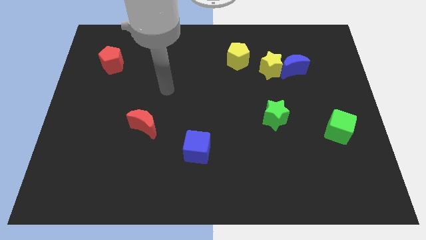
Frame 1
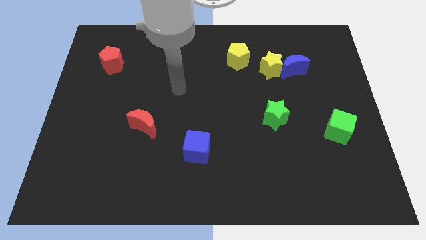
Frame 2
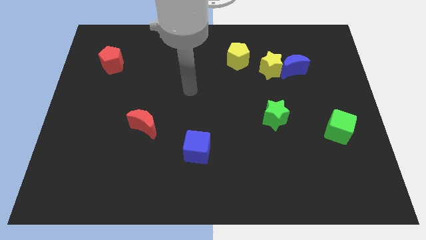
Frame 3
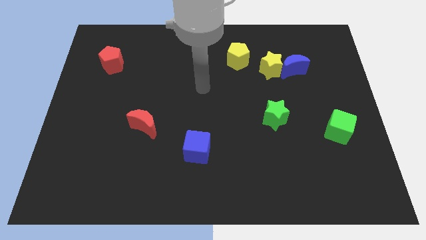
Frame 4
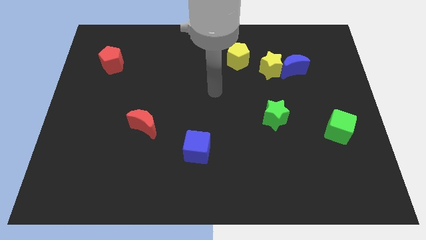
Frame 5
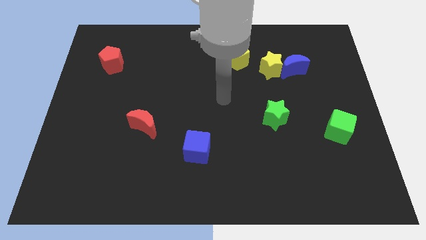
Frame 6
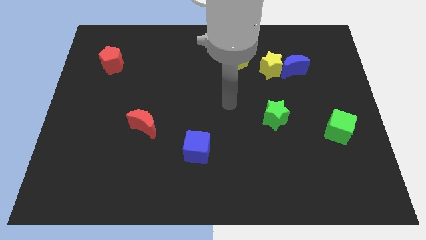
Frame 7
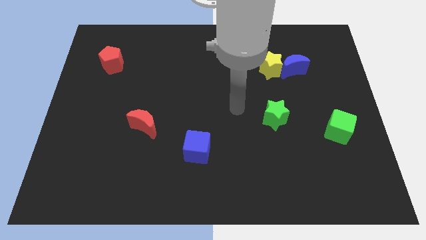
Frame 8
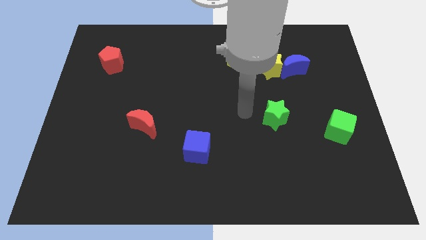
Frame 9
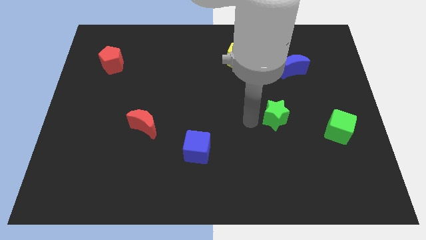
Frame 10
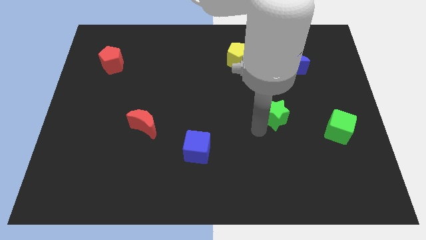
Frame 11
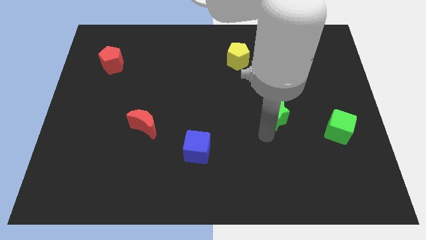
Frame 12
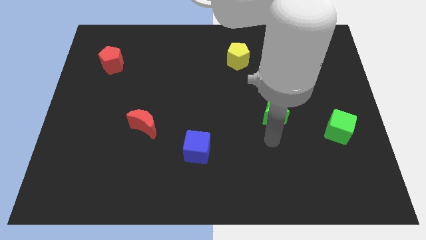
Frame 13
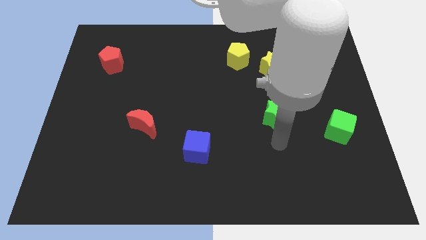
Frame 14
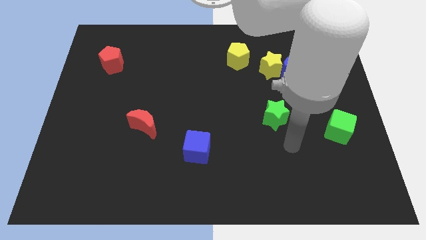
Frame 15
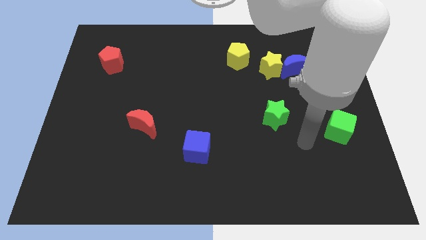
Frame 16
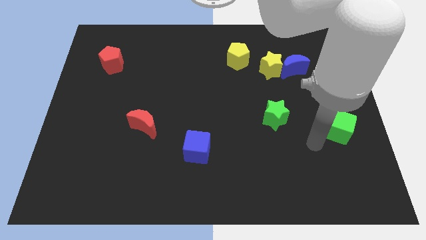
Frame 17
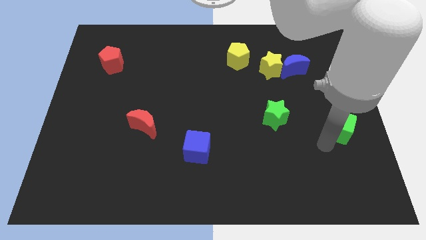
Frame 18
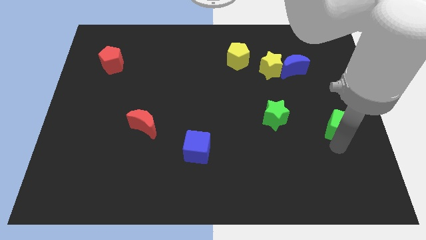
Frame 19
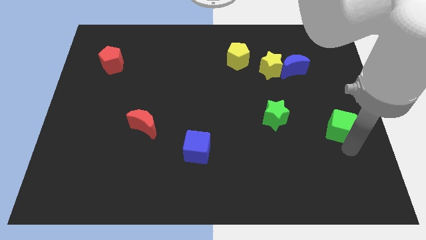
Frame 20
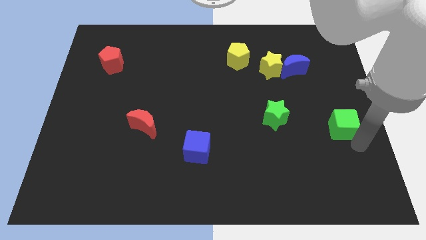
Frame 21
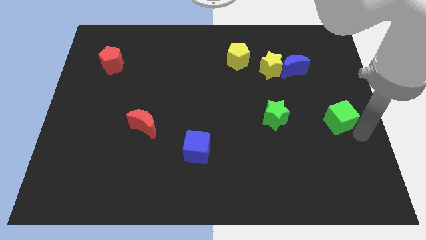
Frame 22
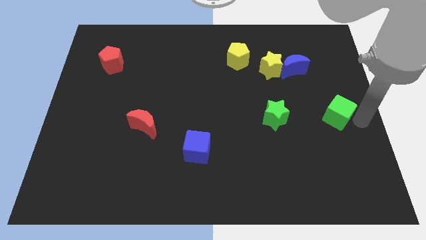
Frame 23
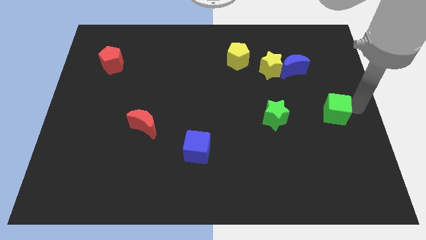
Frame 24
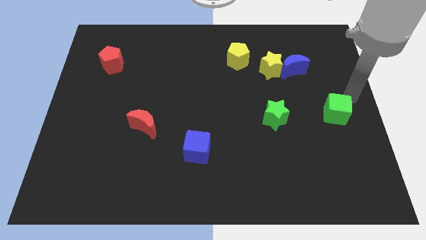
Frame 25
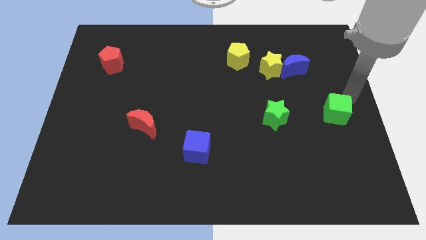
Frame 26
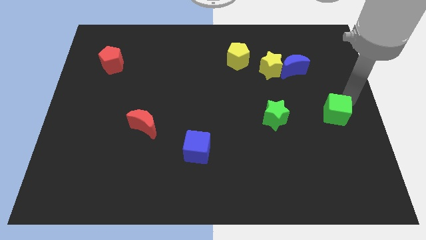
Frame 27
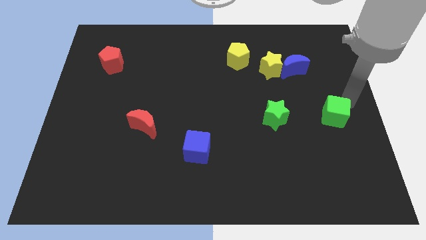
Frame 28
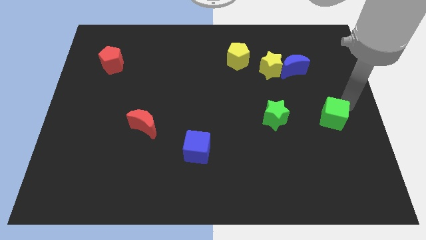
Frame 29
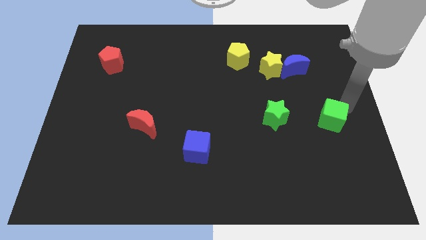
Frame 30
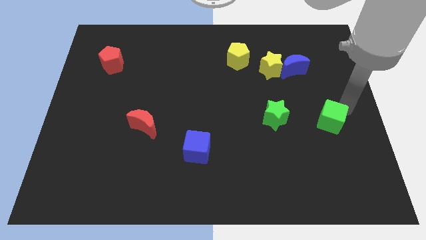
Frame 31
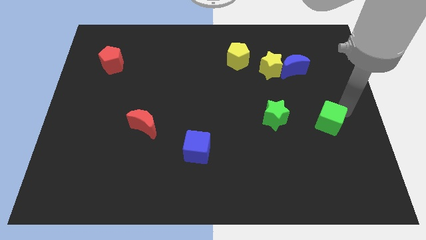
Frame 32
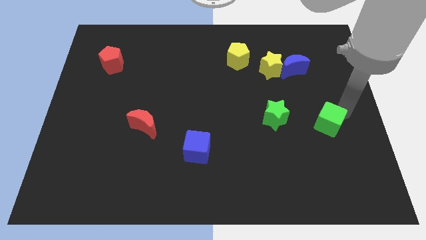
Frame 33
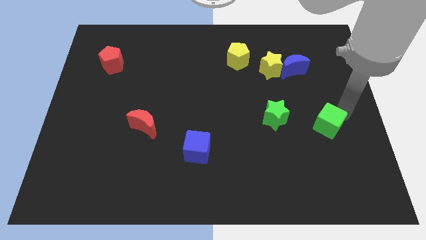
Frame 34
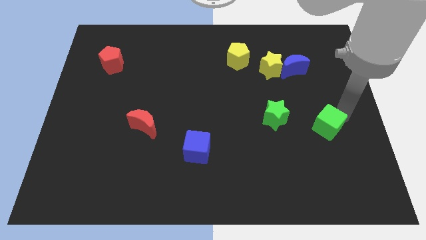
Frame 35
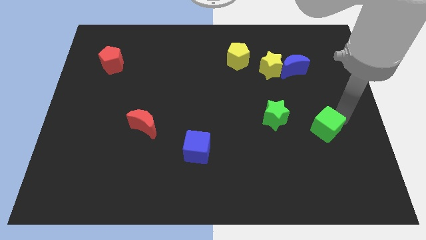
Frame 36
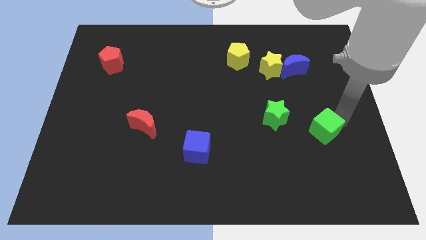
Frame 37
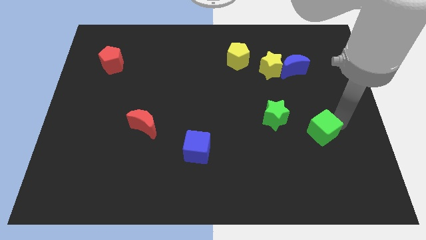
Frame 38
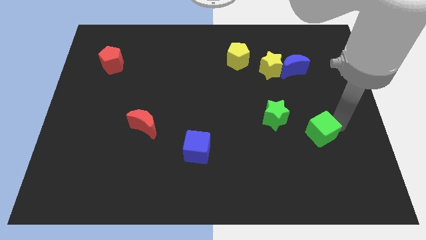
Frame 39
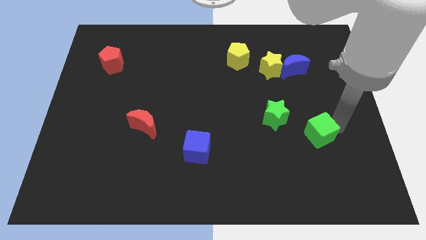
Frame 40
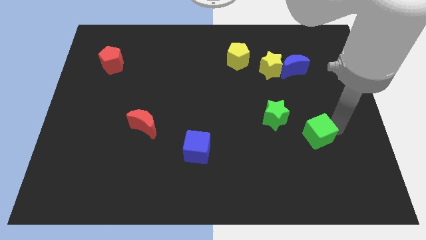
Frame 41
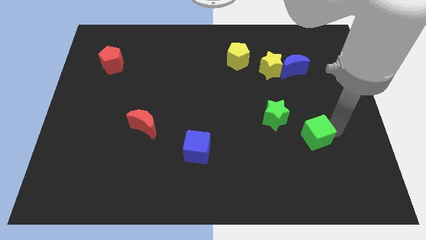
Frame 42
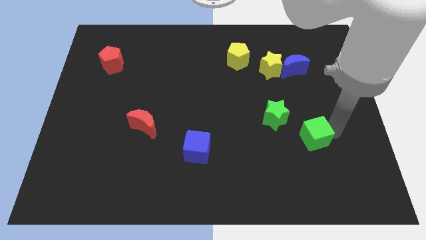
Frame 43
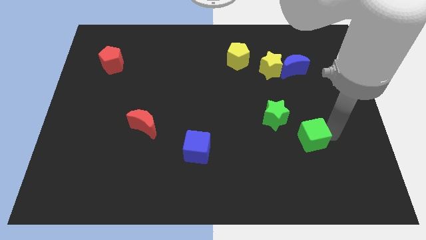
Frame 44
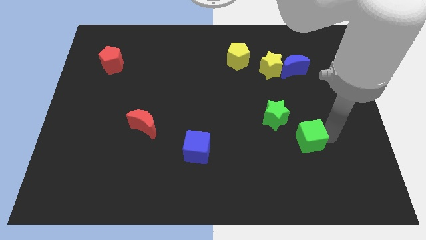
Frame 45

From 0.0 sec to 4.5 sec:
slide the green cube to the left a bit

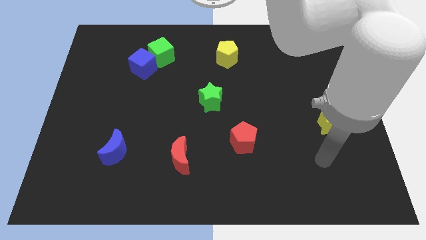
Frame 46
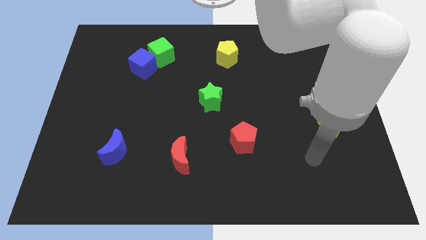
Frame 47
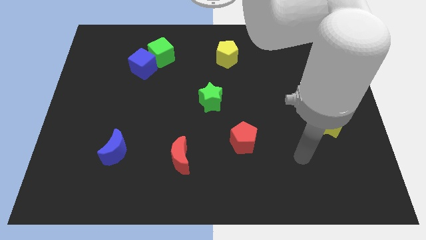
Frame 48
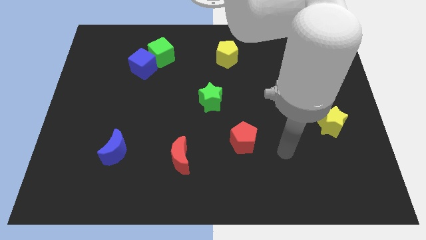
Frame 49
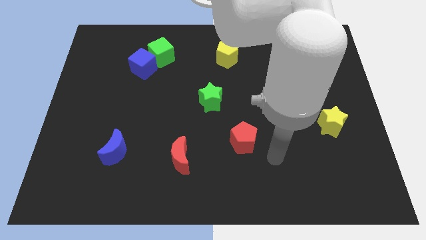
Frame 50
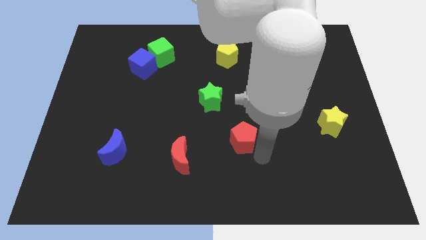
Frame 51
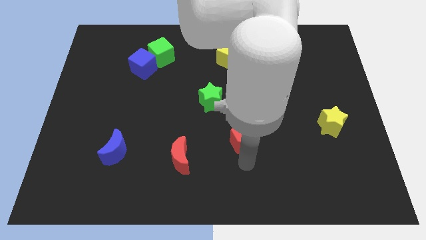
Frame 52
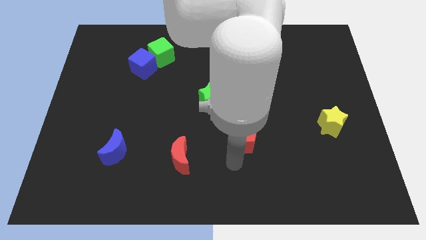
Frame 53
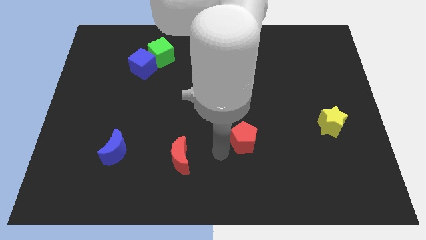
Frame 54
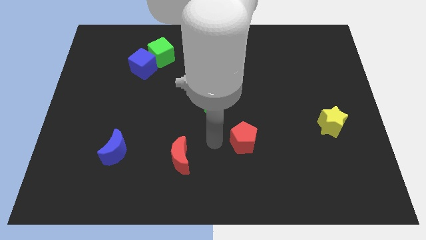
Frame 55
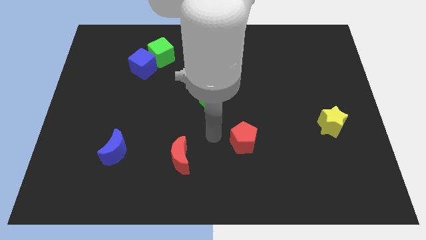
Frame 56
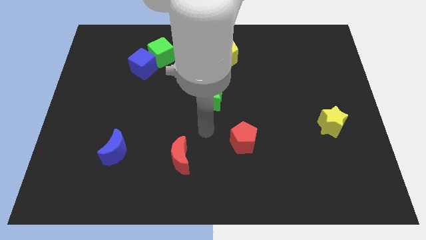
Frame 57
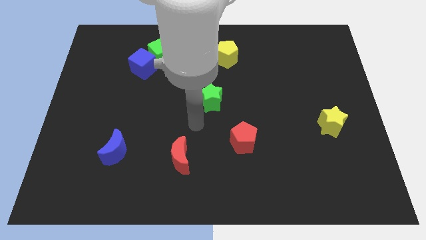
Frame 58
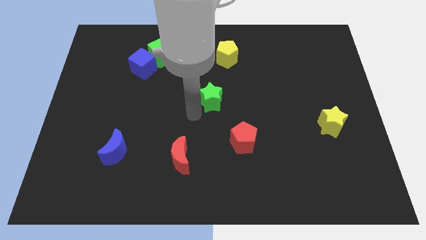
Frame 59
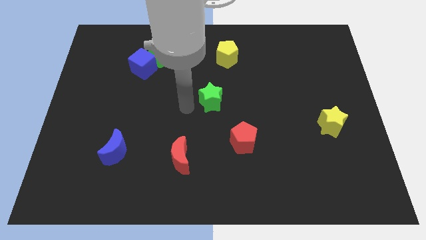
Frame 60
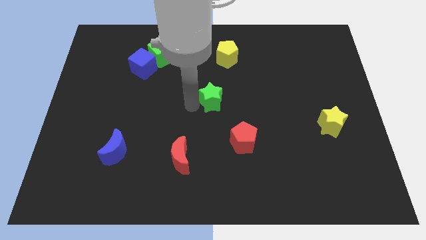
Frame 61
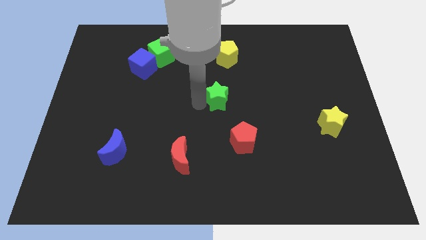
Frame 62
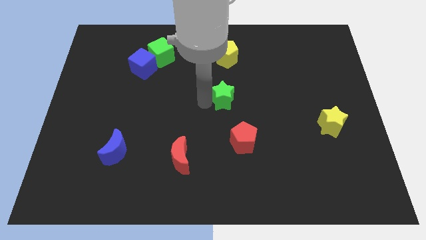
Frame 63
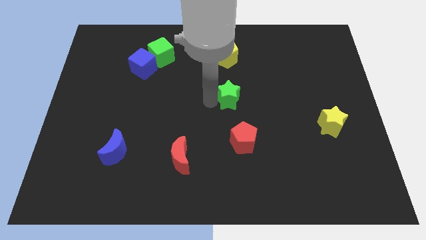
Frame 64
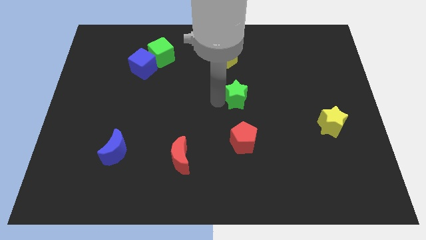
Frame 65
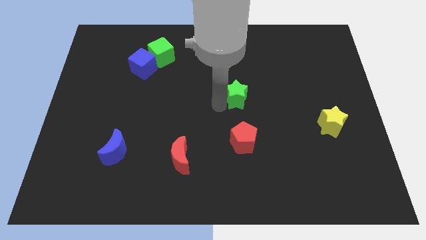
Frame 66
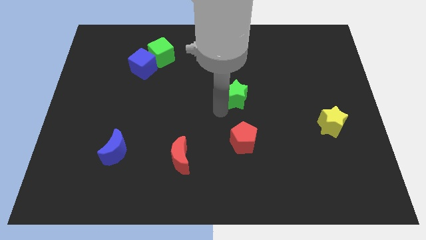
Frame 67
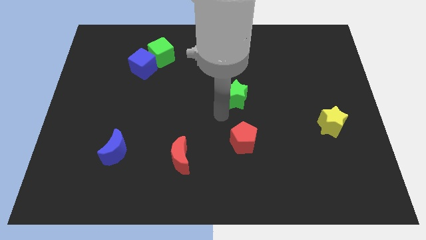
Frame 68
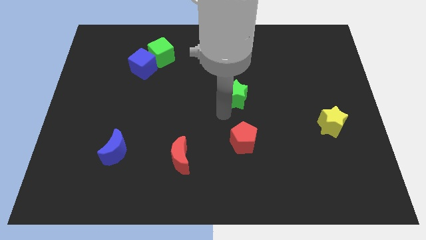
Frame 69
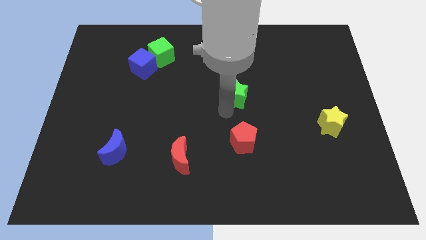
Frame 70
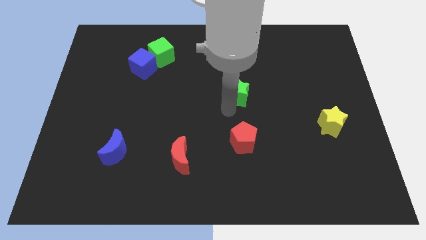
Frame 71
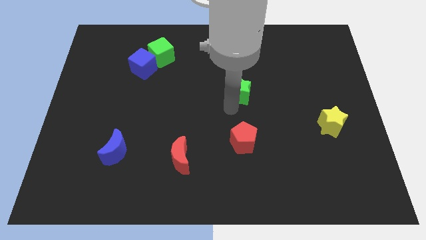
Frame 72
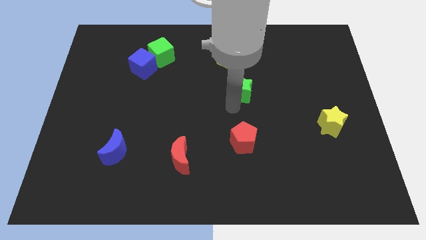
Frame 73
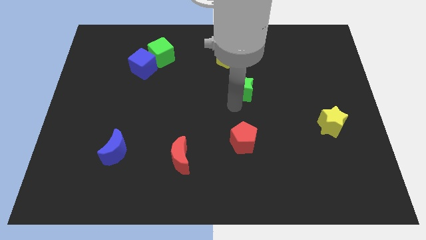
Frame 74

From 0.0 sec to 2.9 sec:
push the green star somewhat upwards and to the right

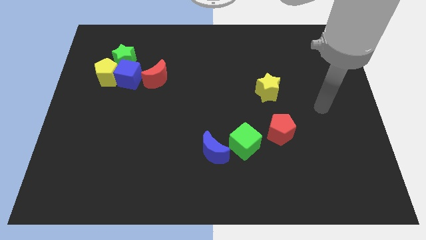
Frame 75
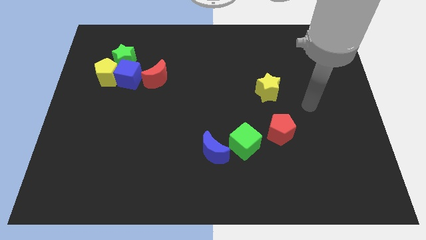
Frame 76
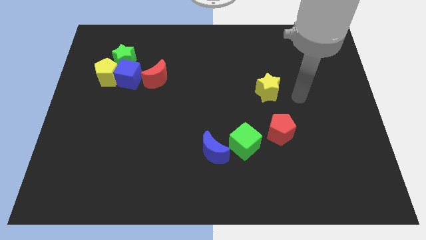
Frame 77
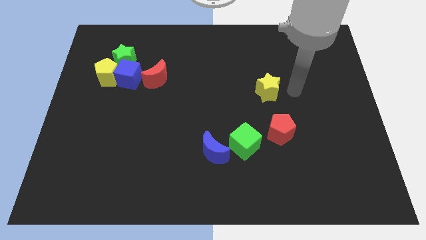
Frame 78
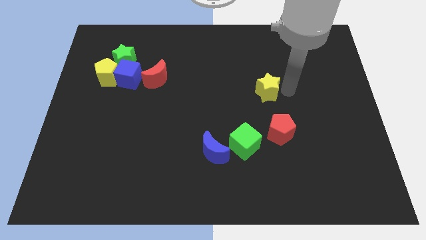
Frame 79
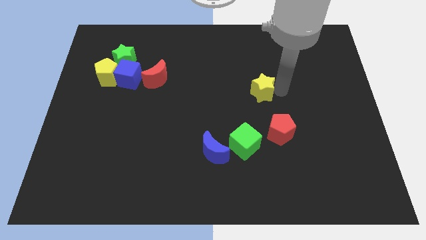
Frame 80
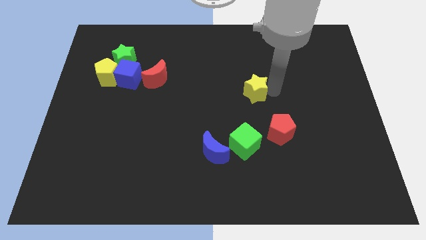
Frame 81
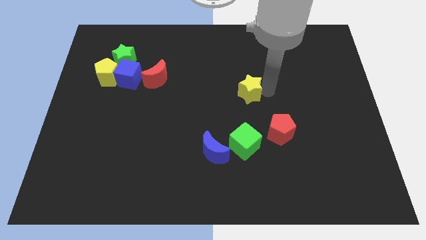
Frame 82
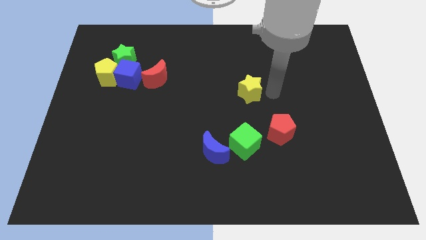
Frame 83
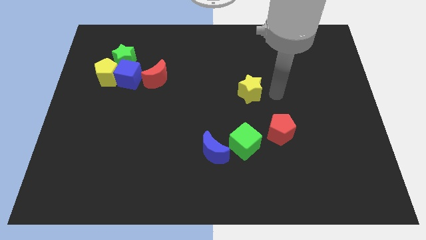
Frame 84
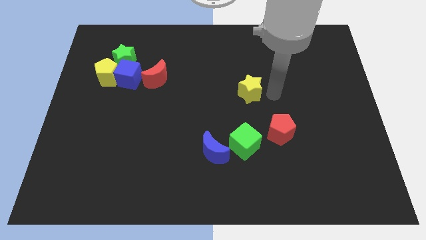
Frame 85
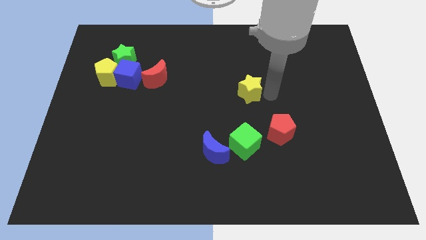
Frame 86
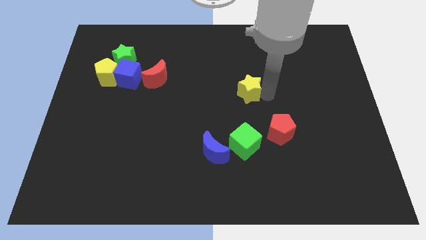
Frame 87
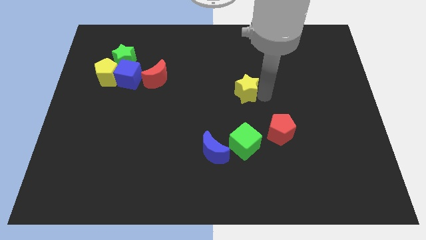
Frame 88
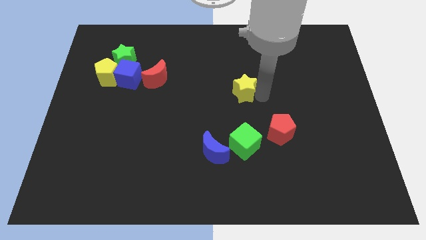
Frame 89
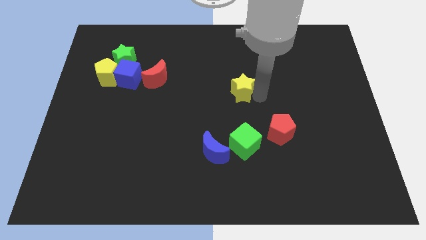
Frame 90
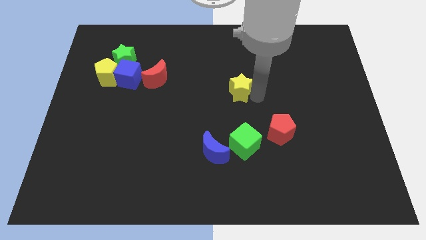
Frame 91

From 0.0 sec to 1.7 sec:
move the yellow star left a bit
